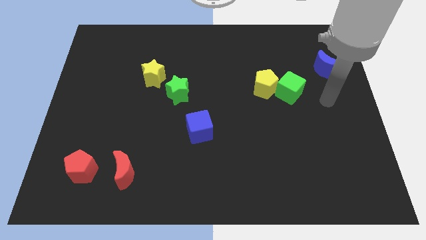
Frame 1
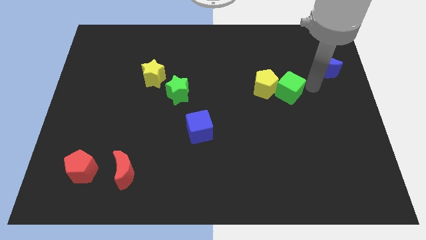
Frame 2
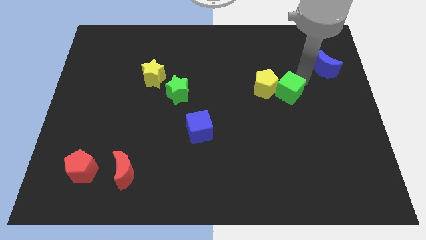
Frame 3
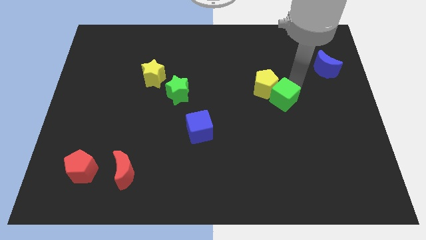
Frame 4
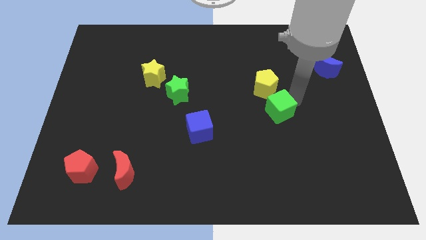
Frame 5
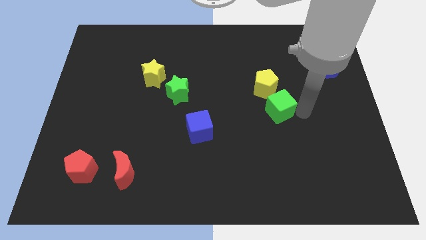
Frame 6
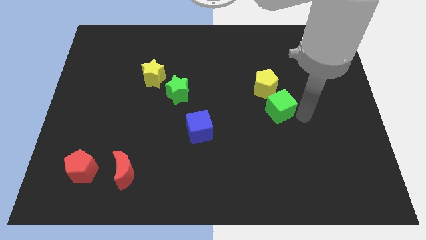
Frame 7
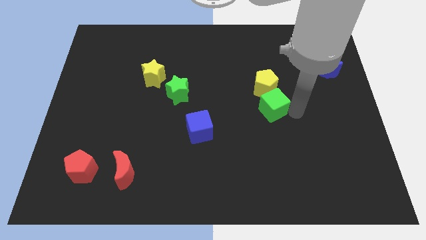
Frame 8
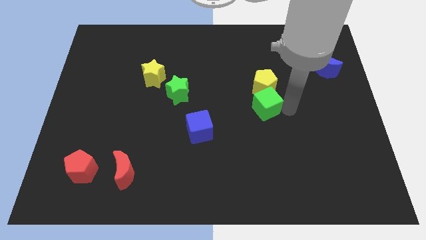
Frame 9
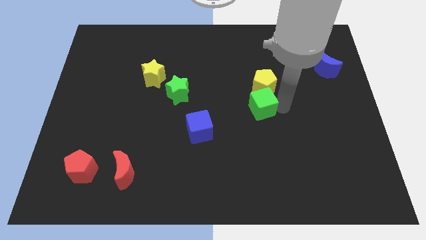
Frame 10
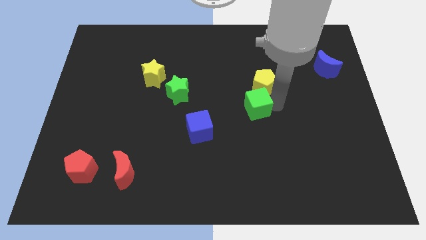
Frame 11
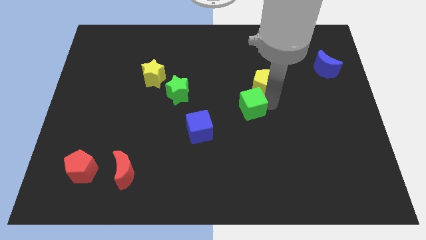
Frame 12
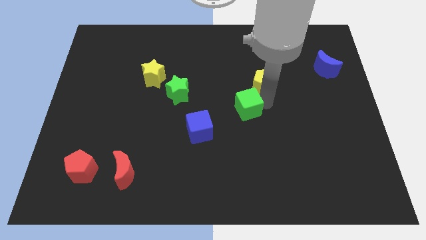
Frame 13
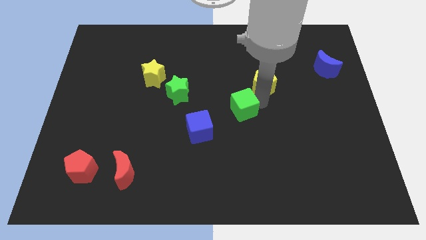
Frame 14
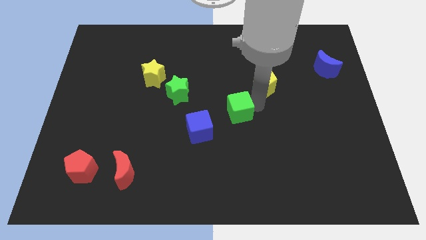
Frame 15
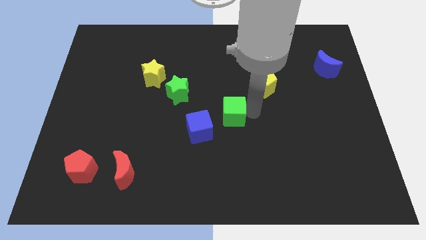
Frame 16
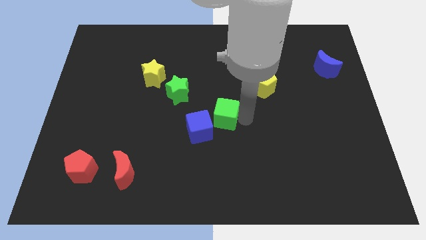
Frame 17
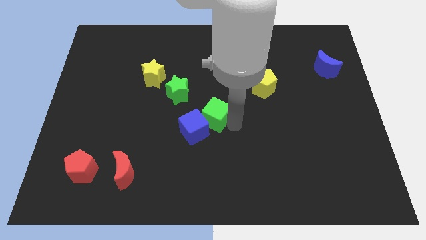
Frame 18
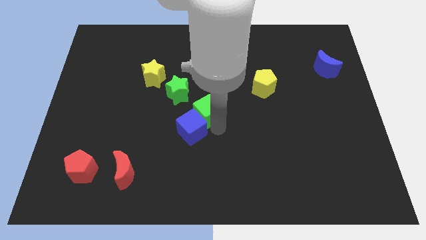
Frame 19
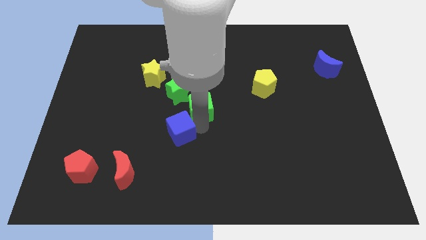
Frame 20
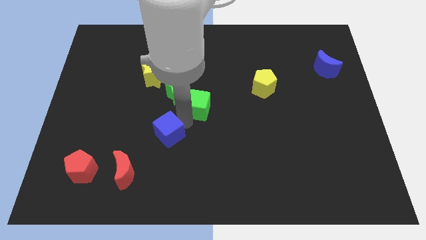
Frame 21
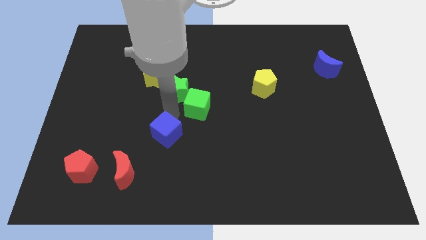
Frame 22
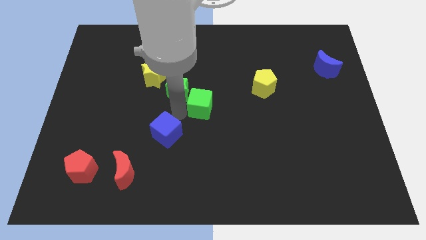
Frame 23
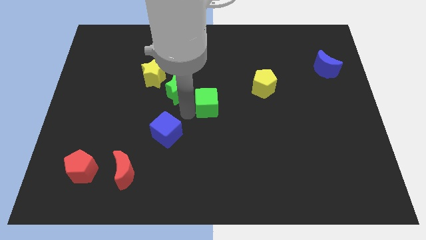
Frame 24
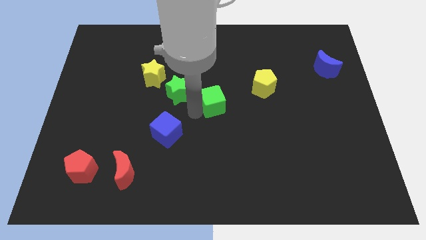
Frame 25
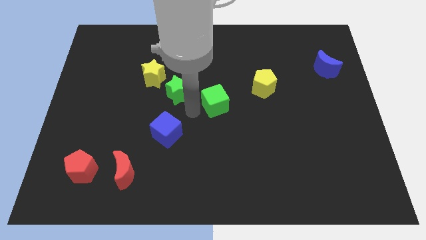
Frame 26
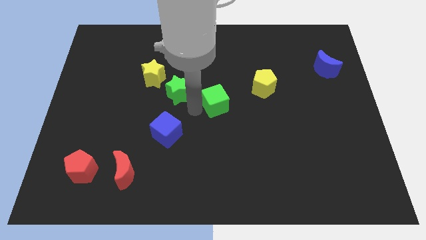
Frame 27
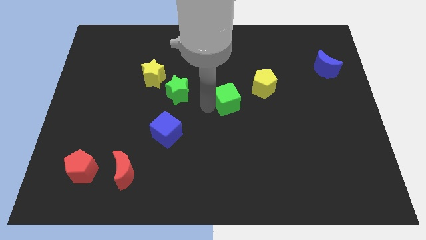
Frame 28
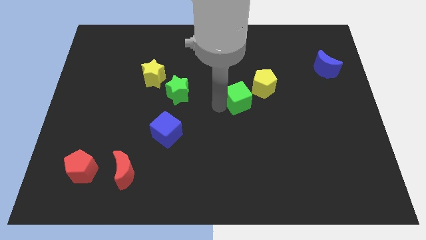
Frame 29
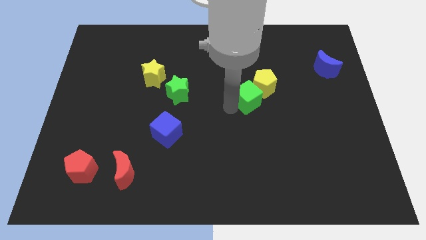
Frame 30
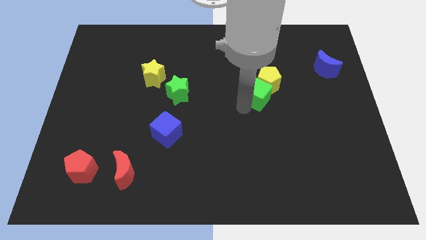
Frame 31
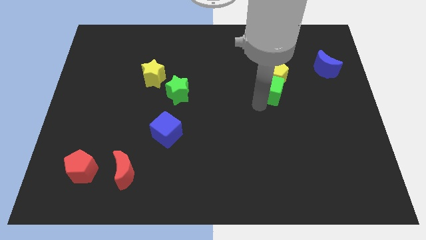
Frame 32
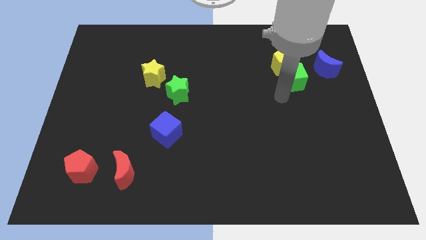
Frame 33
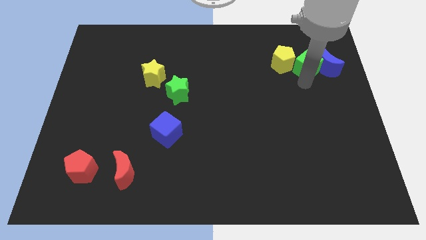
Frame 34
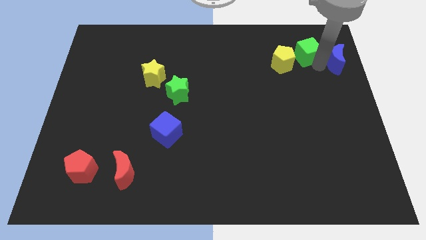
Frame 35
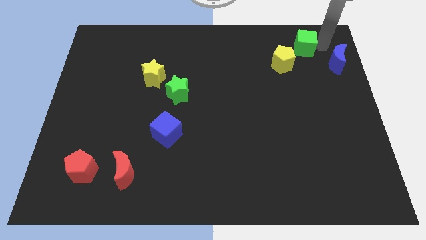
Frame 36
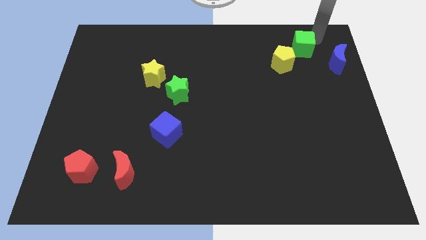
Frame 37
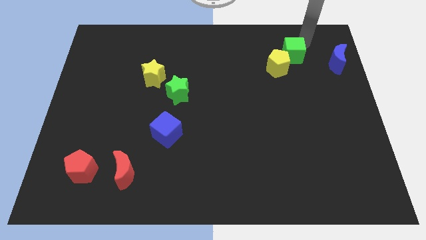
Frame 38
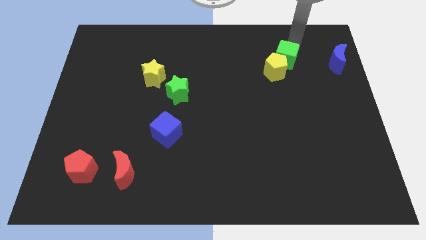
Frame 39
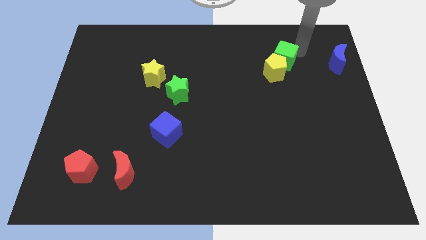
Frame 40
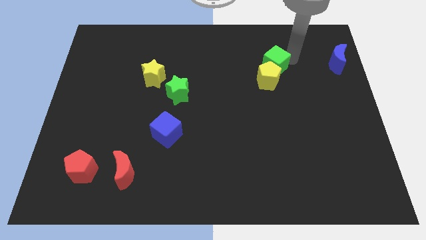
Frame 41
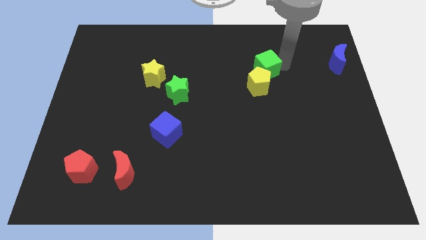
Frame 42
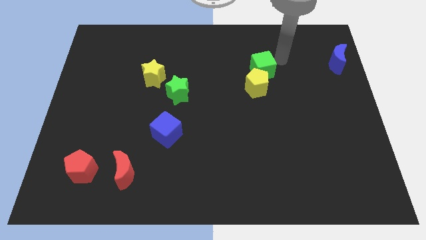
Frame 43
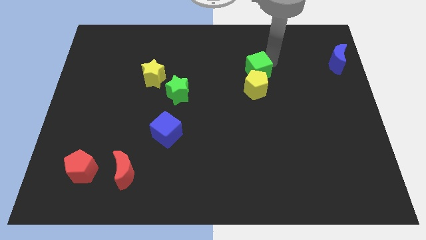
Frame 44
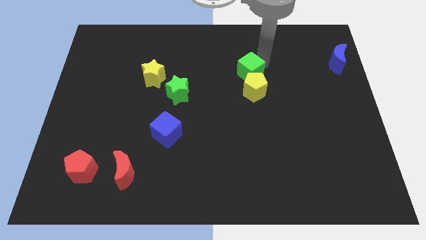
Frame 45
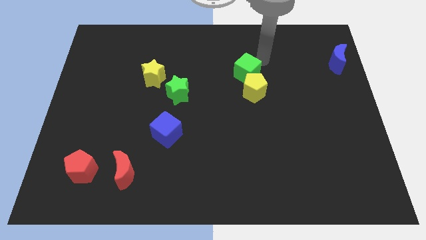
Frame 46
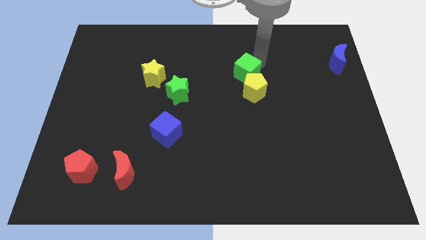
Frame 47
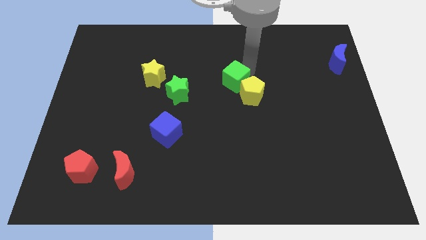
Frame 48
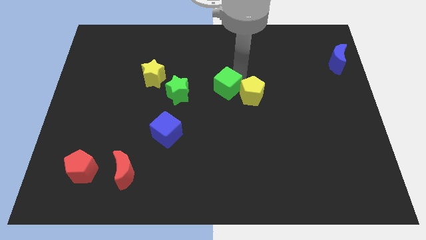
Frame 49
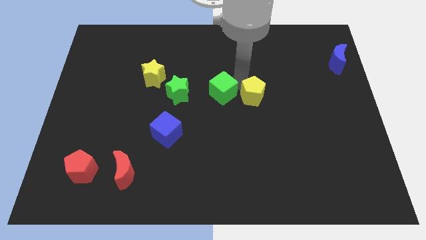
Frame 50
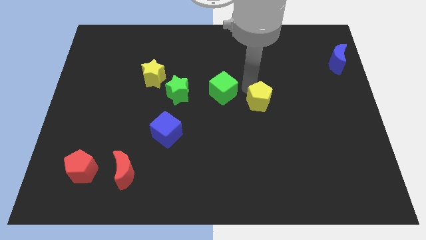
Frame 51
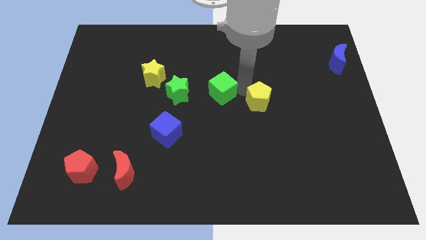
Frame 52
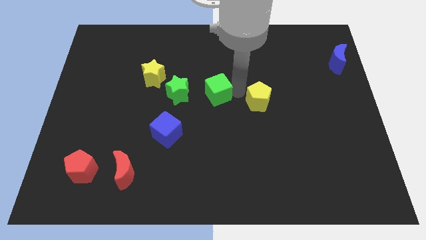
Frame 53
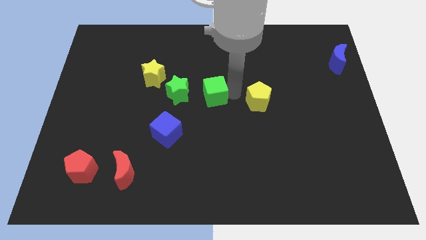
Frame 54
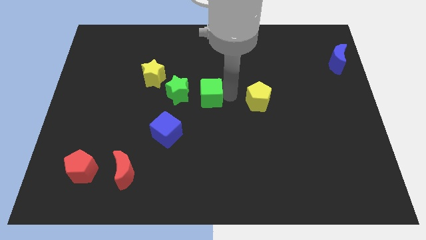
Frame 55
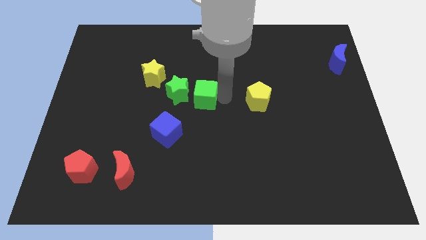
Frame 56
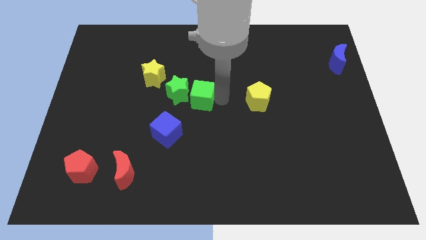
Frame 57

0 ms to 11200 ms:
move the green cube towards the green star

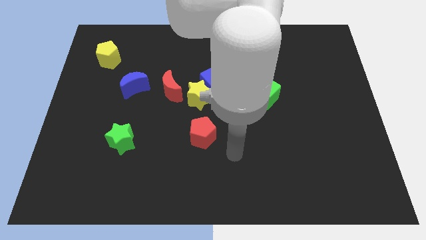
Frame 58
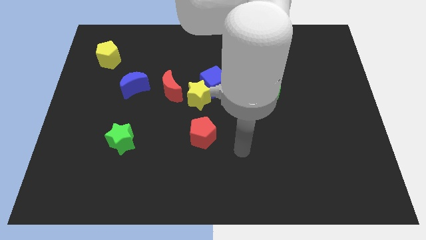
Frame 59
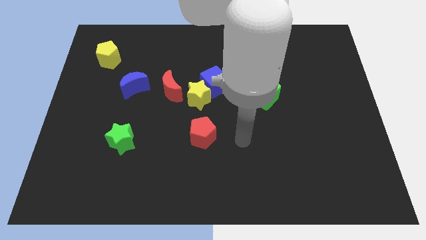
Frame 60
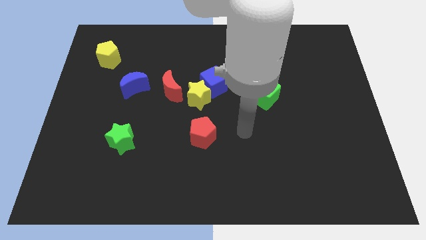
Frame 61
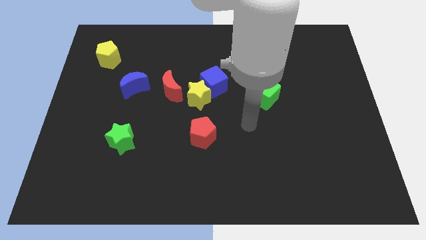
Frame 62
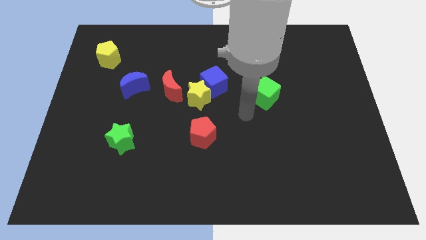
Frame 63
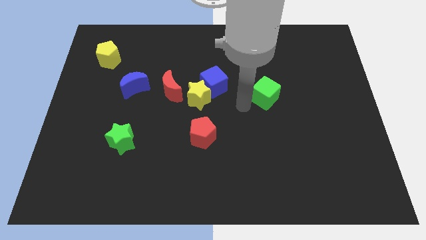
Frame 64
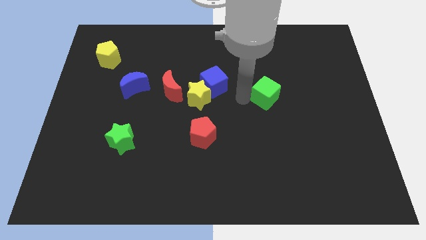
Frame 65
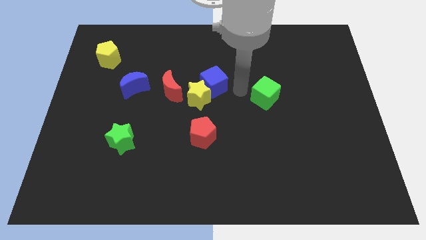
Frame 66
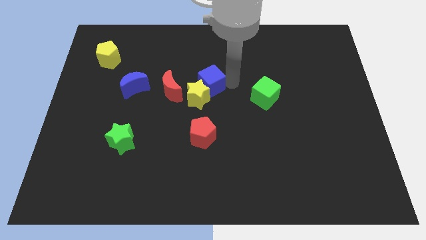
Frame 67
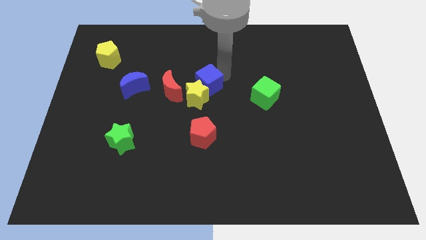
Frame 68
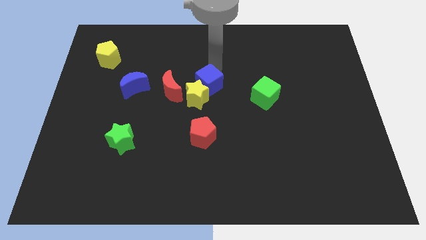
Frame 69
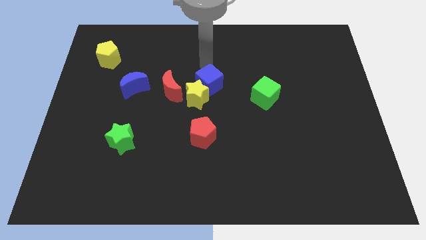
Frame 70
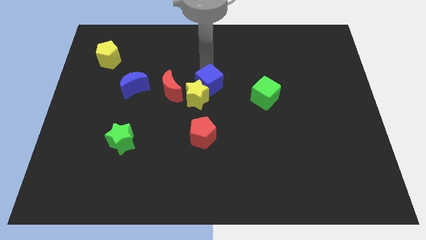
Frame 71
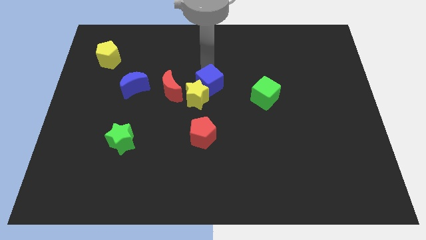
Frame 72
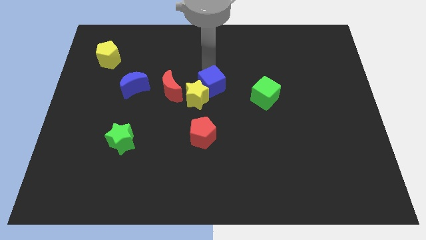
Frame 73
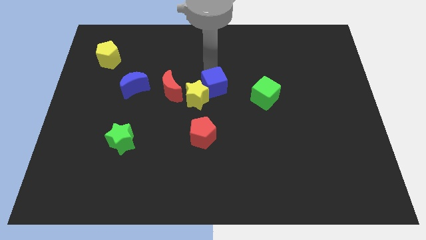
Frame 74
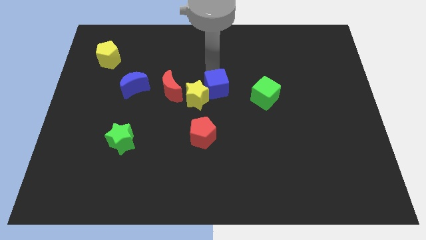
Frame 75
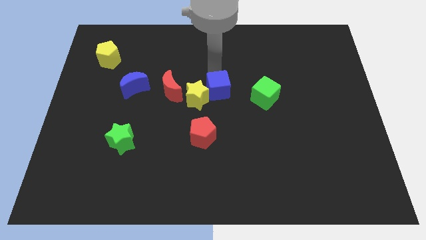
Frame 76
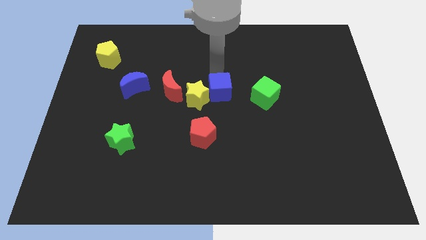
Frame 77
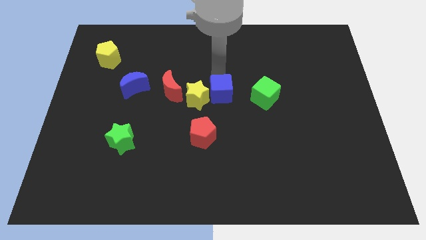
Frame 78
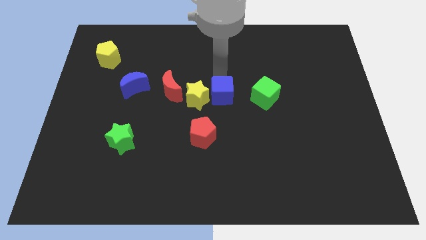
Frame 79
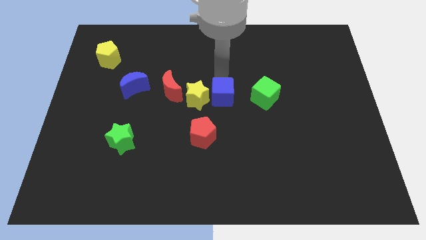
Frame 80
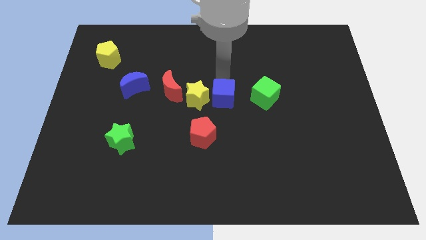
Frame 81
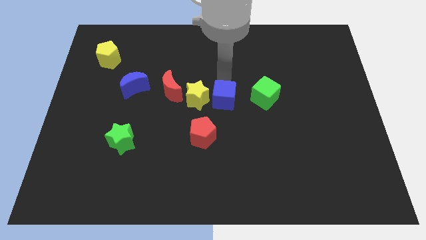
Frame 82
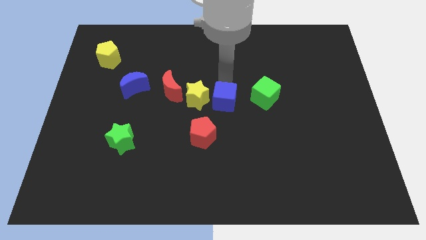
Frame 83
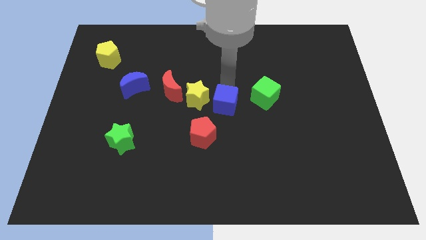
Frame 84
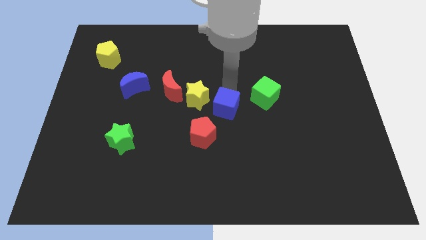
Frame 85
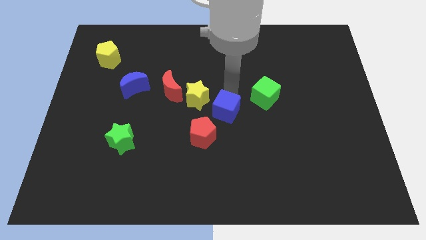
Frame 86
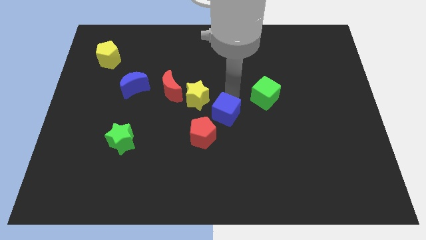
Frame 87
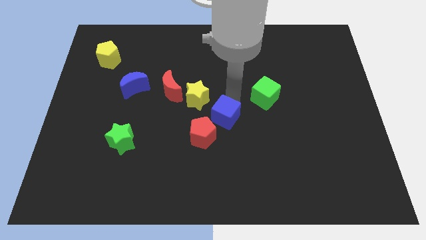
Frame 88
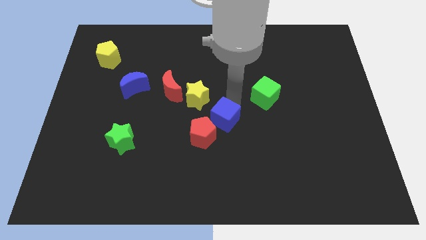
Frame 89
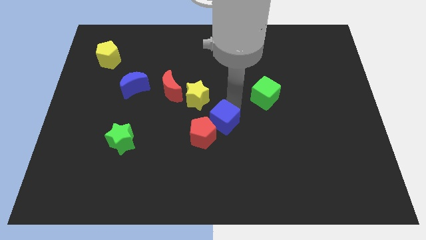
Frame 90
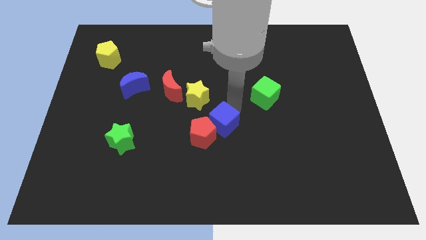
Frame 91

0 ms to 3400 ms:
move the blue cube towards the red pentagon
